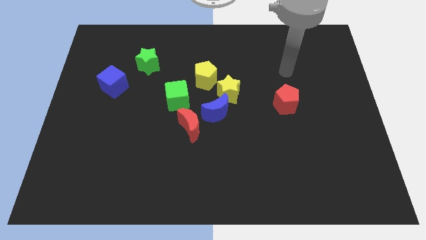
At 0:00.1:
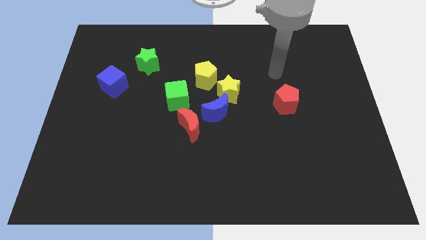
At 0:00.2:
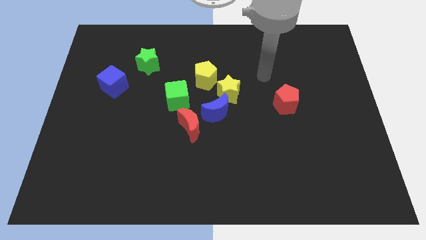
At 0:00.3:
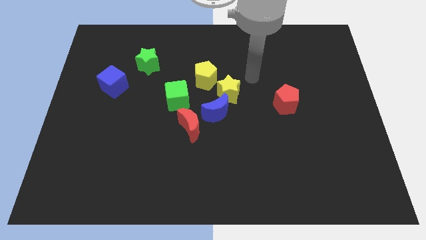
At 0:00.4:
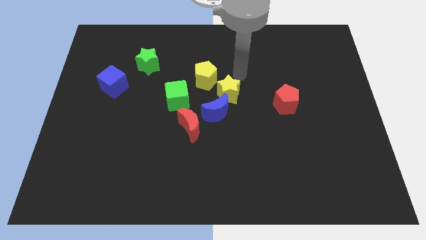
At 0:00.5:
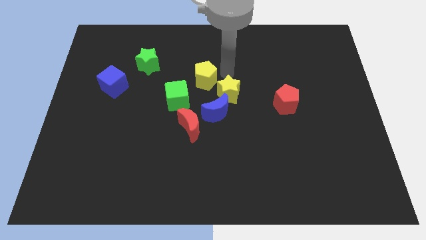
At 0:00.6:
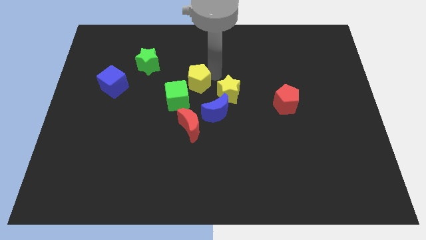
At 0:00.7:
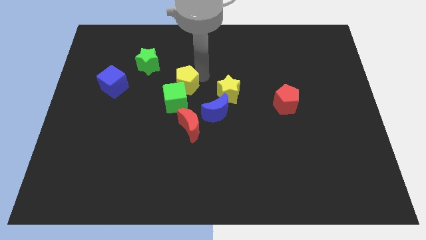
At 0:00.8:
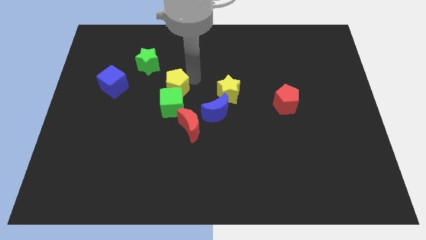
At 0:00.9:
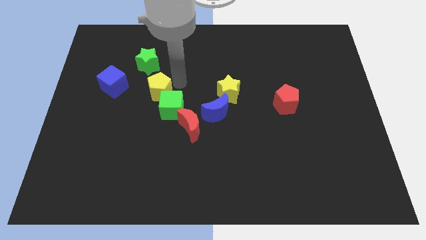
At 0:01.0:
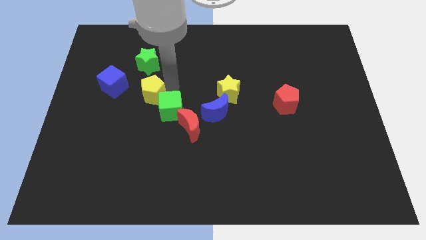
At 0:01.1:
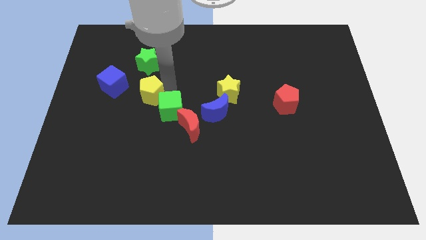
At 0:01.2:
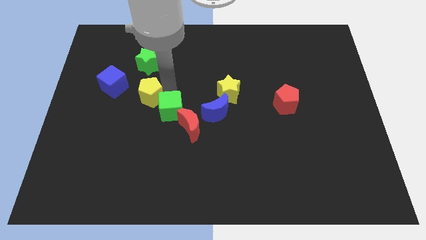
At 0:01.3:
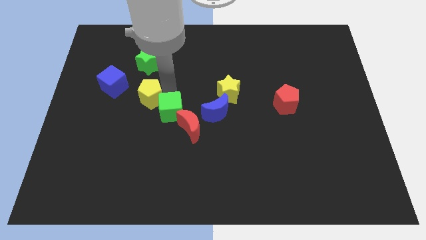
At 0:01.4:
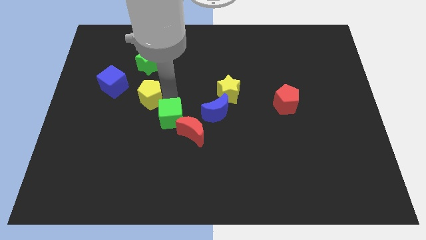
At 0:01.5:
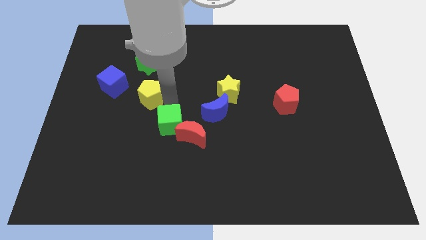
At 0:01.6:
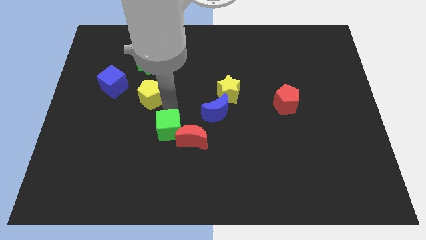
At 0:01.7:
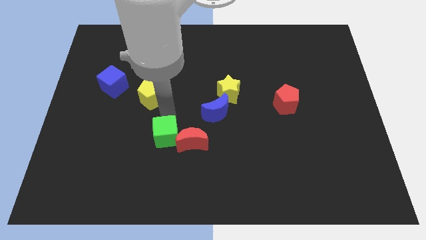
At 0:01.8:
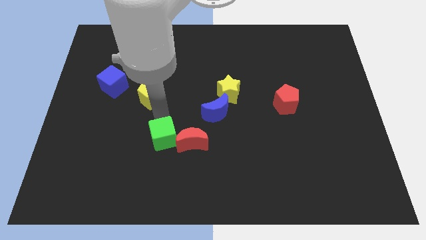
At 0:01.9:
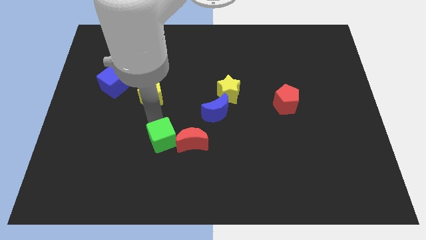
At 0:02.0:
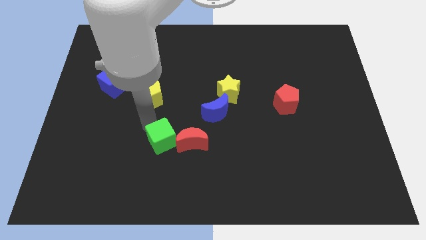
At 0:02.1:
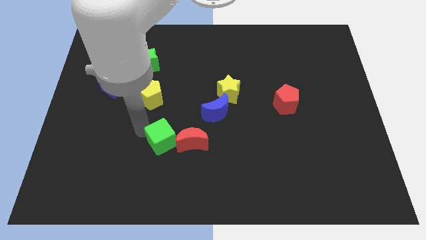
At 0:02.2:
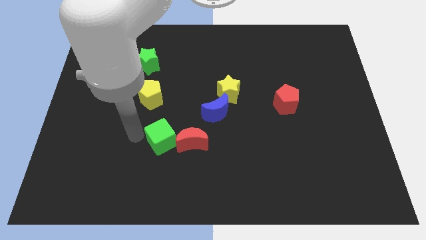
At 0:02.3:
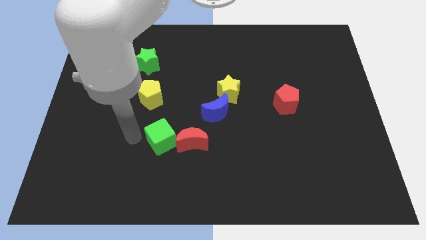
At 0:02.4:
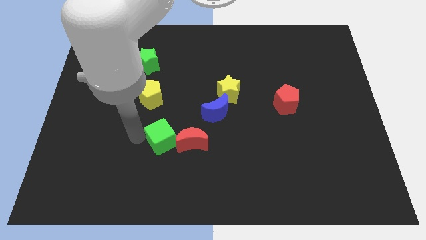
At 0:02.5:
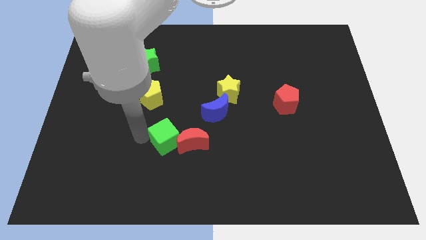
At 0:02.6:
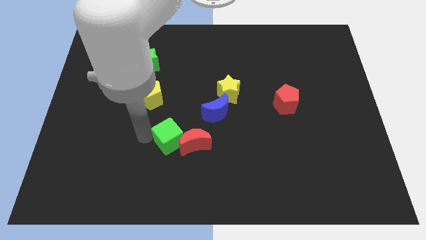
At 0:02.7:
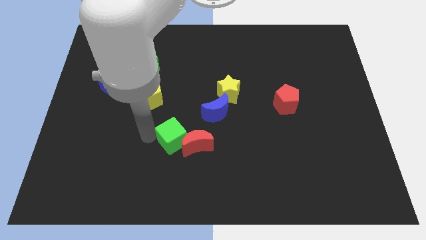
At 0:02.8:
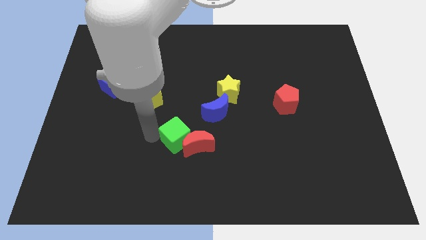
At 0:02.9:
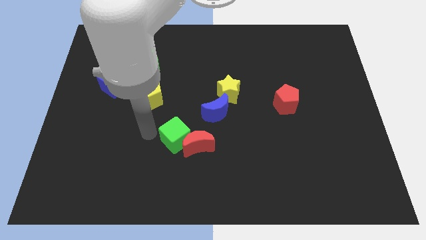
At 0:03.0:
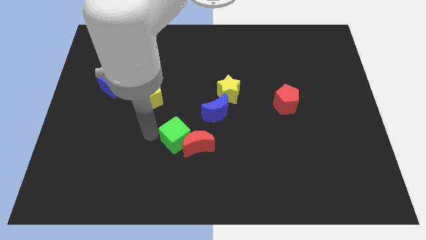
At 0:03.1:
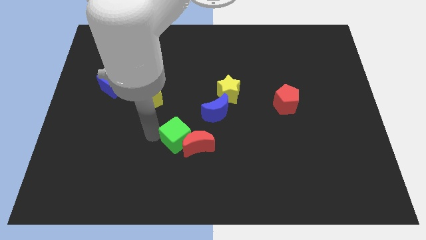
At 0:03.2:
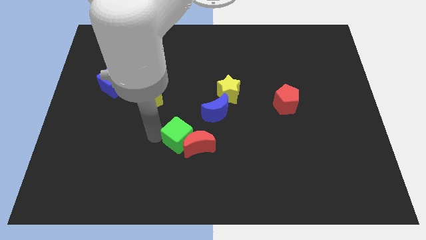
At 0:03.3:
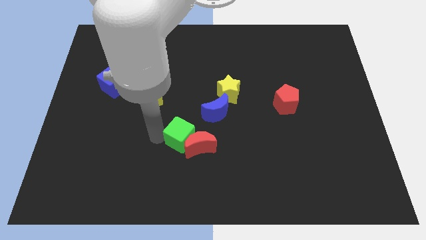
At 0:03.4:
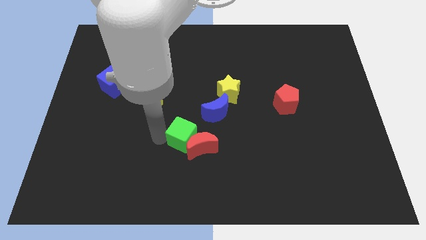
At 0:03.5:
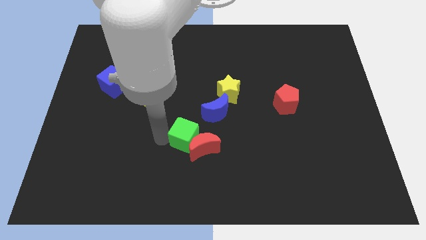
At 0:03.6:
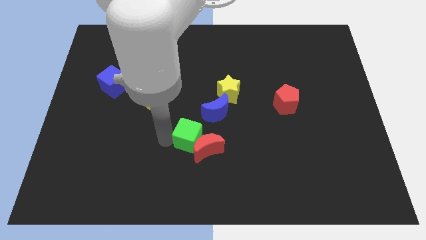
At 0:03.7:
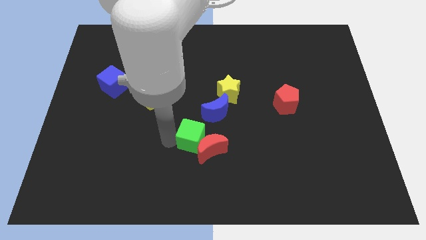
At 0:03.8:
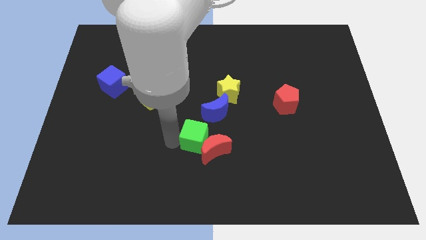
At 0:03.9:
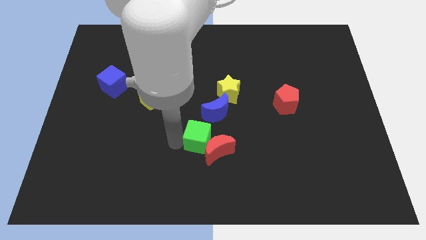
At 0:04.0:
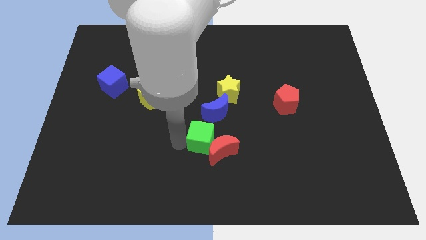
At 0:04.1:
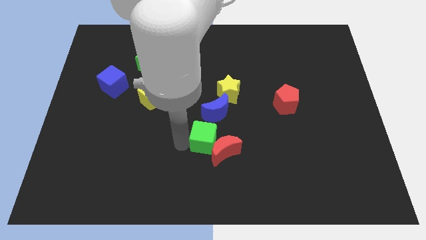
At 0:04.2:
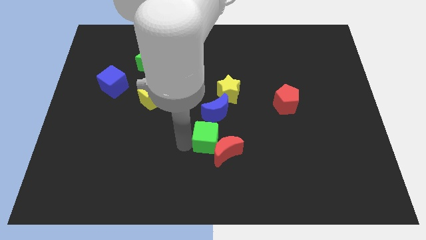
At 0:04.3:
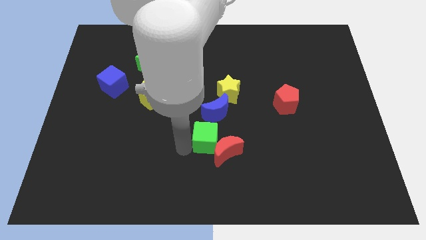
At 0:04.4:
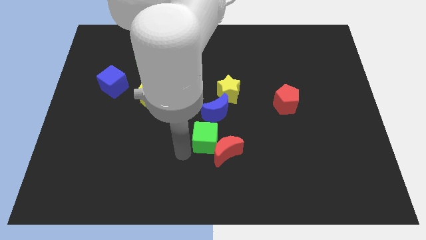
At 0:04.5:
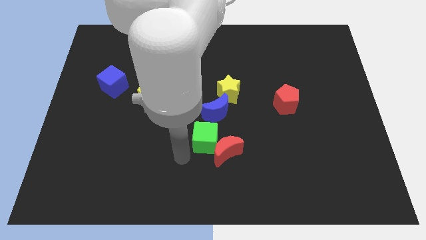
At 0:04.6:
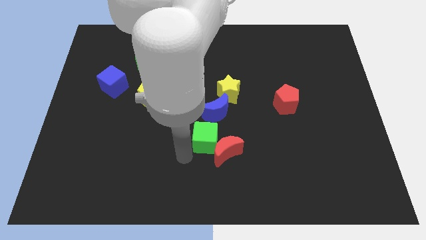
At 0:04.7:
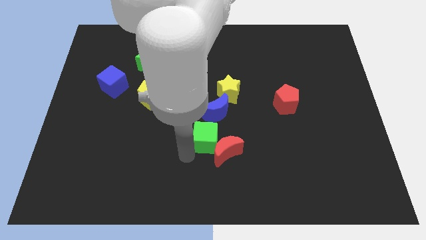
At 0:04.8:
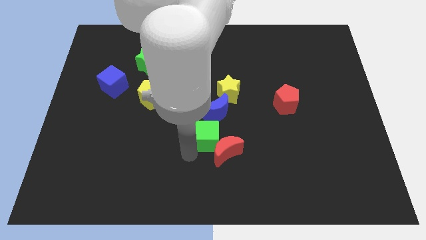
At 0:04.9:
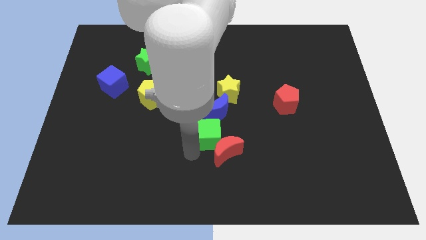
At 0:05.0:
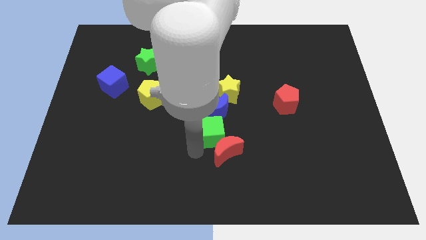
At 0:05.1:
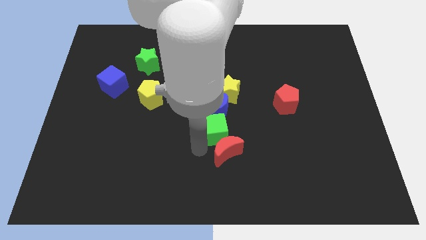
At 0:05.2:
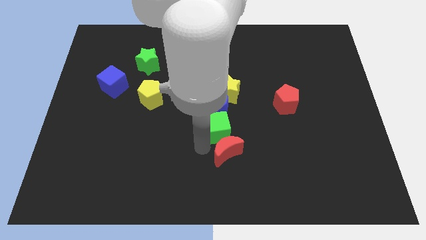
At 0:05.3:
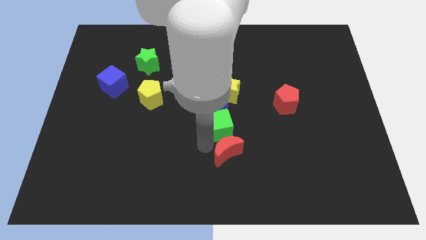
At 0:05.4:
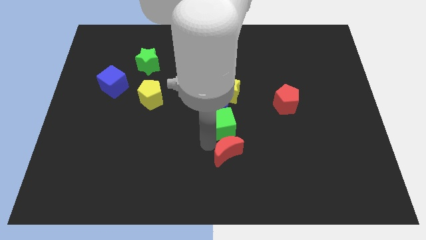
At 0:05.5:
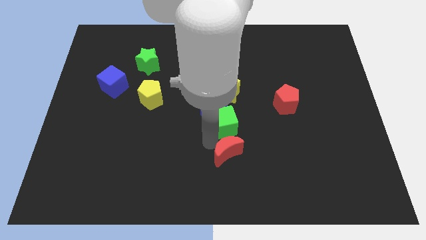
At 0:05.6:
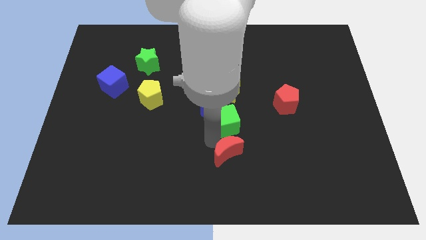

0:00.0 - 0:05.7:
slide the green cube to the right of the blue moon

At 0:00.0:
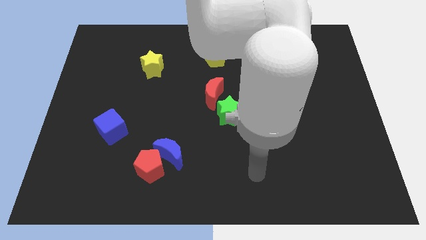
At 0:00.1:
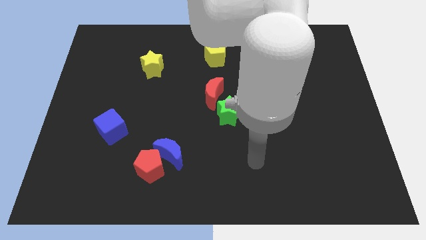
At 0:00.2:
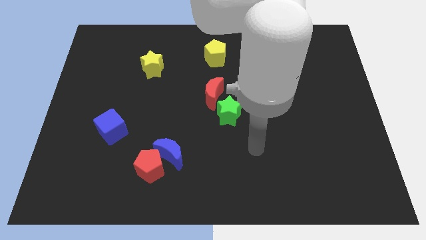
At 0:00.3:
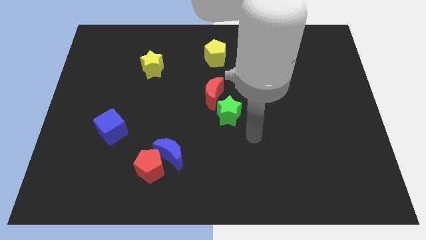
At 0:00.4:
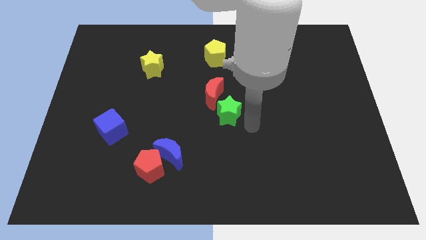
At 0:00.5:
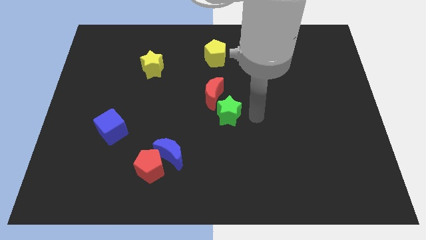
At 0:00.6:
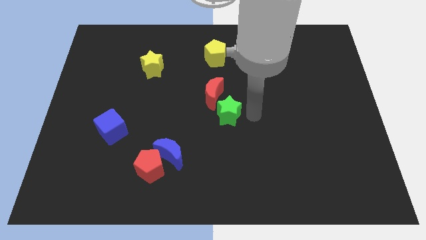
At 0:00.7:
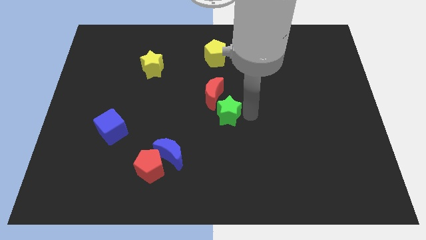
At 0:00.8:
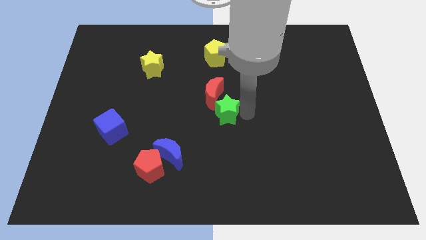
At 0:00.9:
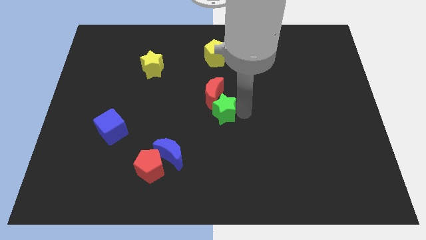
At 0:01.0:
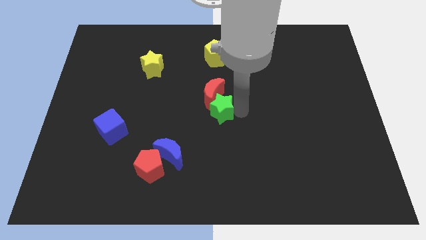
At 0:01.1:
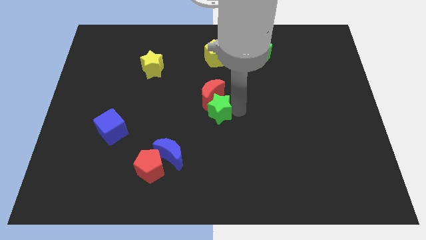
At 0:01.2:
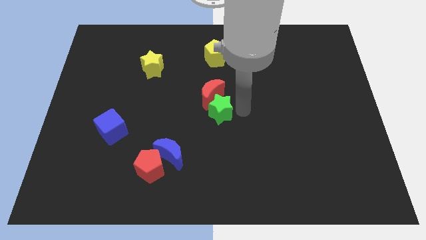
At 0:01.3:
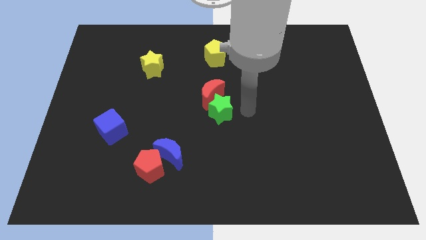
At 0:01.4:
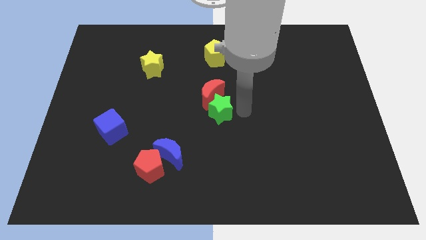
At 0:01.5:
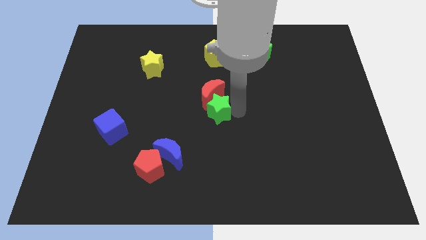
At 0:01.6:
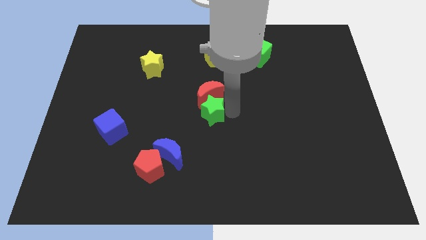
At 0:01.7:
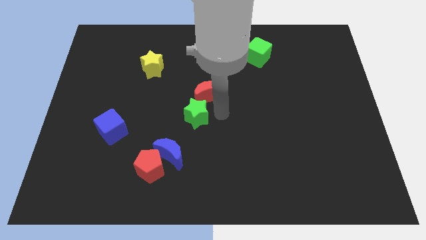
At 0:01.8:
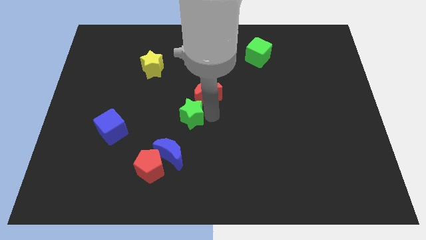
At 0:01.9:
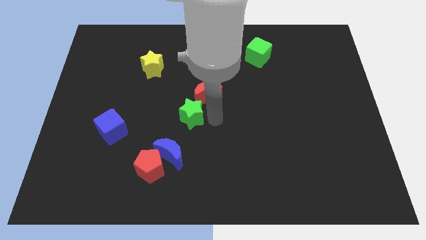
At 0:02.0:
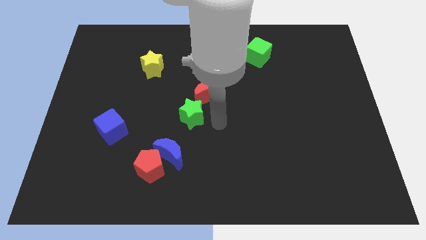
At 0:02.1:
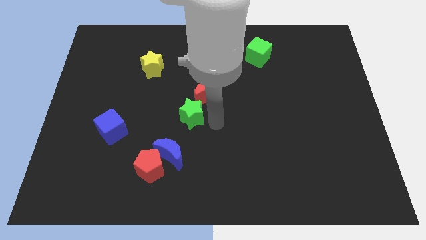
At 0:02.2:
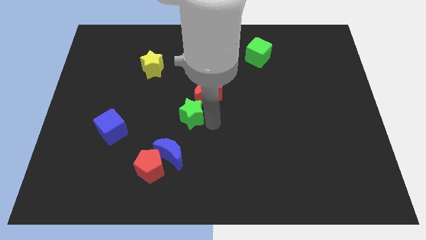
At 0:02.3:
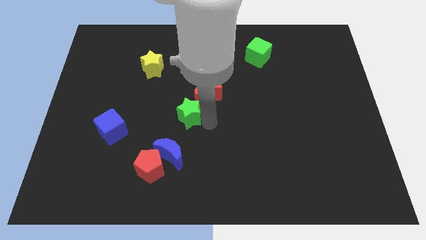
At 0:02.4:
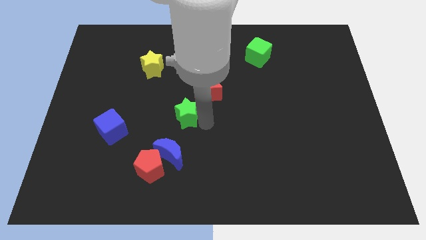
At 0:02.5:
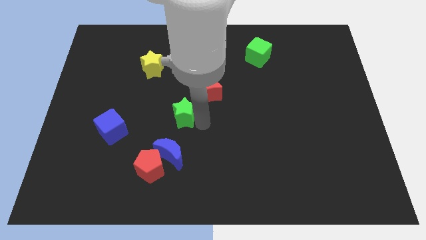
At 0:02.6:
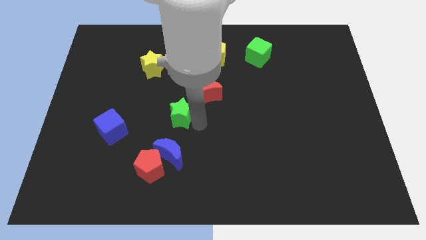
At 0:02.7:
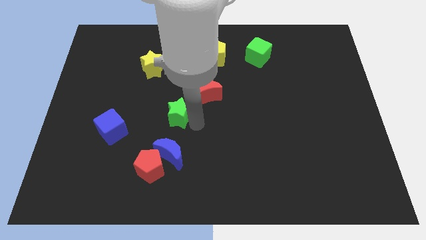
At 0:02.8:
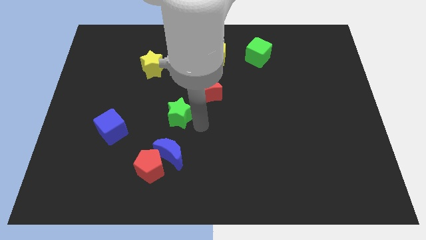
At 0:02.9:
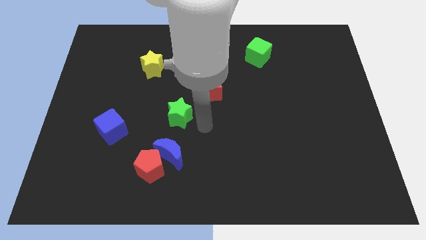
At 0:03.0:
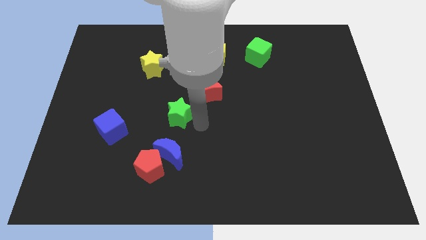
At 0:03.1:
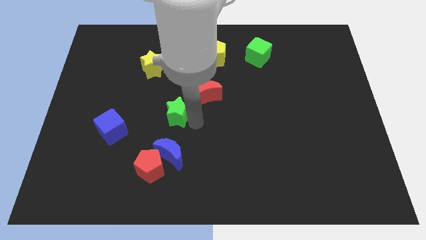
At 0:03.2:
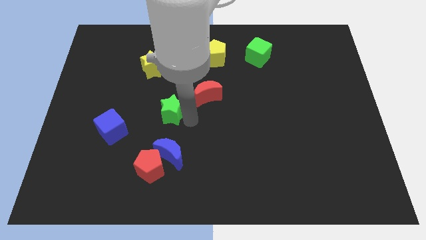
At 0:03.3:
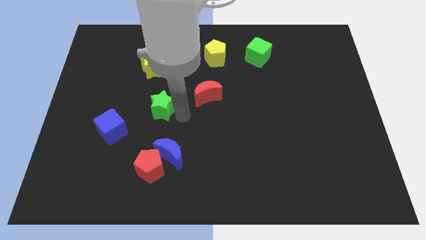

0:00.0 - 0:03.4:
put the green star diagonally up and to the right of the blue cube
